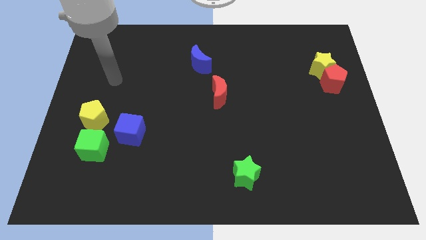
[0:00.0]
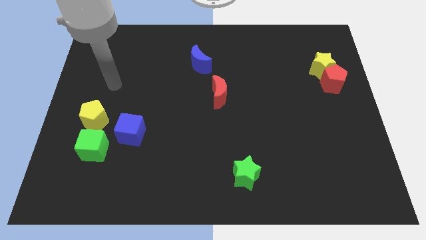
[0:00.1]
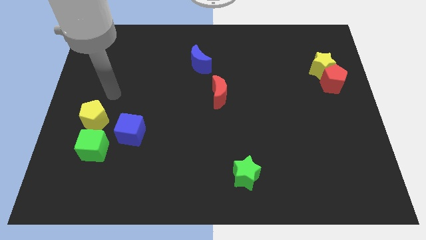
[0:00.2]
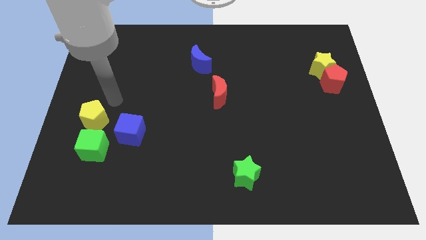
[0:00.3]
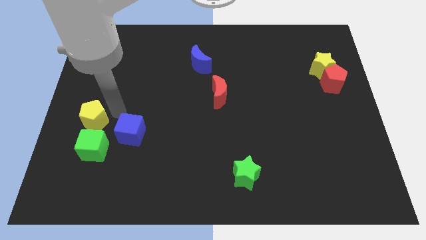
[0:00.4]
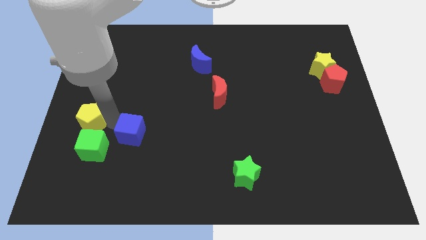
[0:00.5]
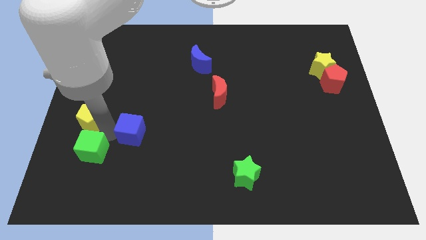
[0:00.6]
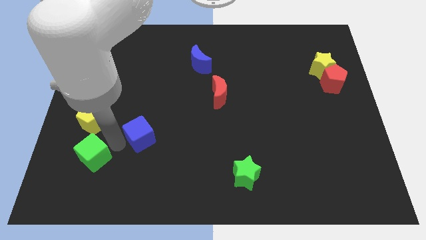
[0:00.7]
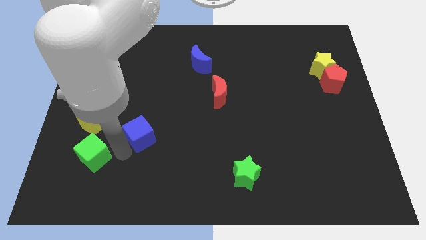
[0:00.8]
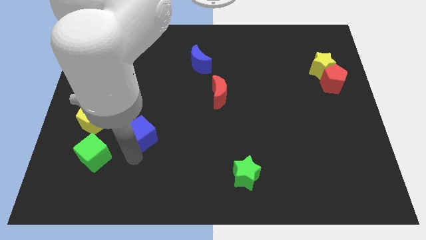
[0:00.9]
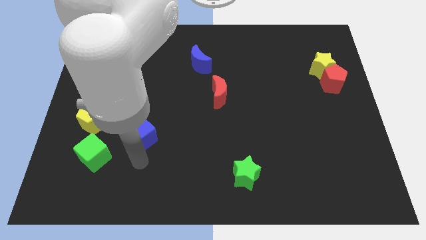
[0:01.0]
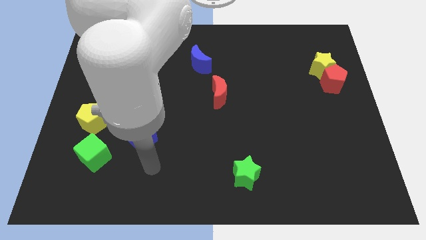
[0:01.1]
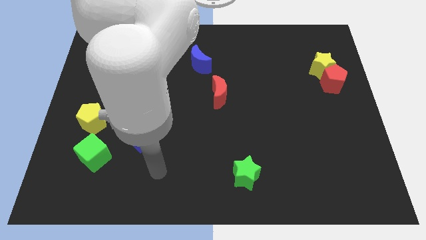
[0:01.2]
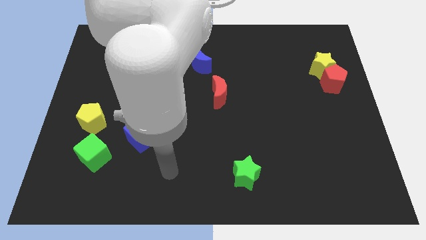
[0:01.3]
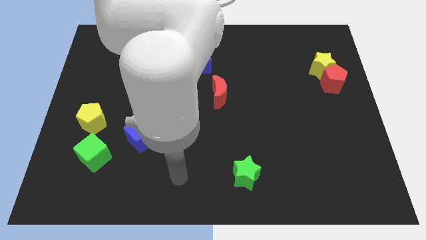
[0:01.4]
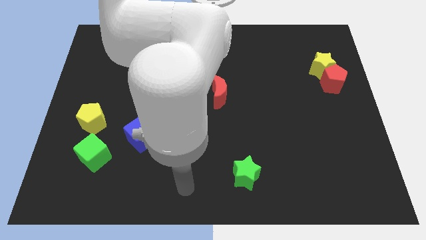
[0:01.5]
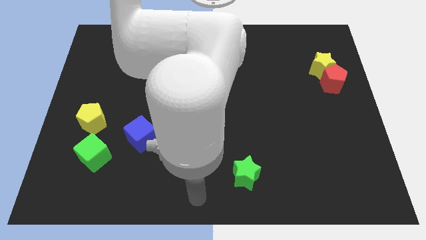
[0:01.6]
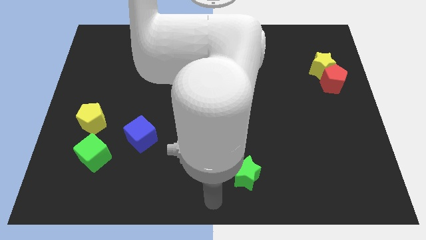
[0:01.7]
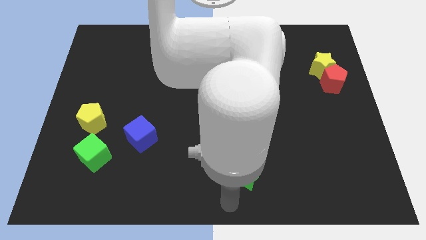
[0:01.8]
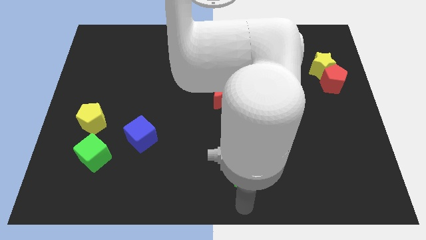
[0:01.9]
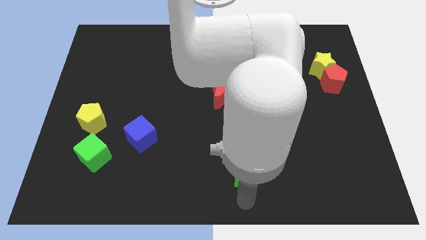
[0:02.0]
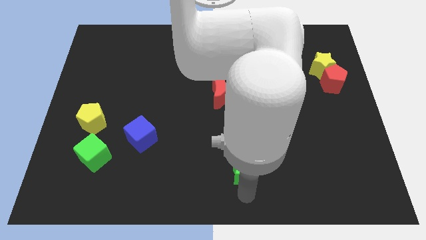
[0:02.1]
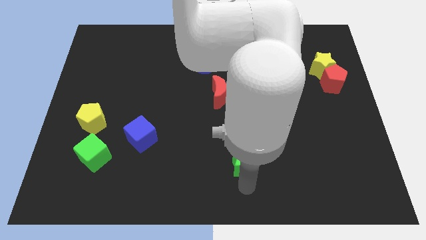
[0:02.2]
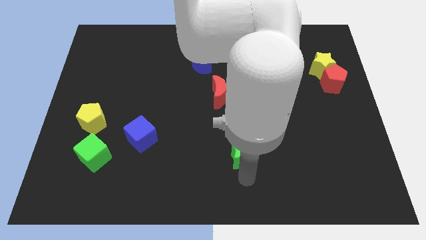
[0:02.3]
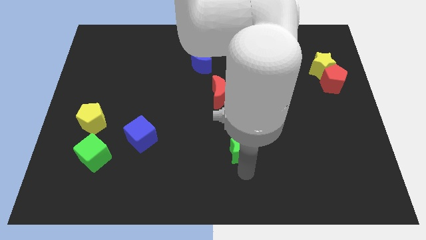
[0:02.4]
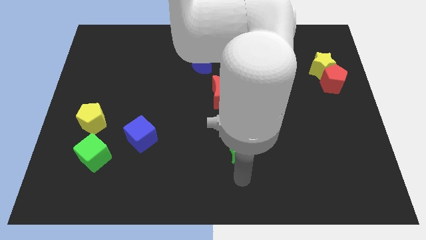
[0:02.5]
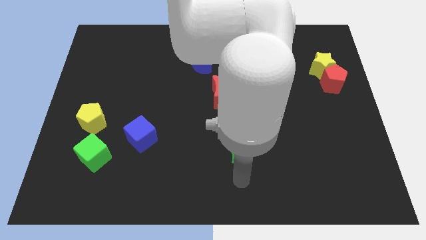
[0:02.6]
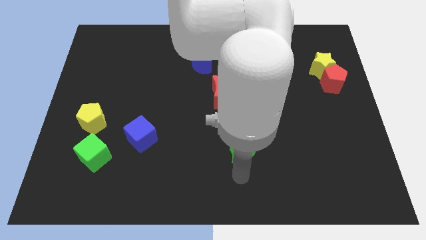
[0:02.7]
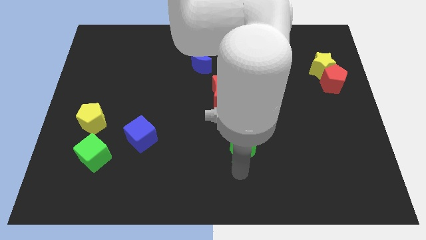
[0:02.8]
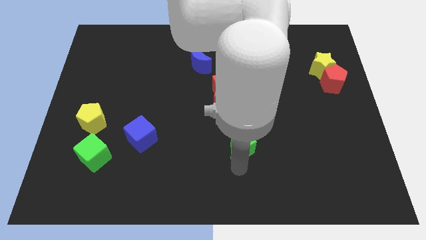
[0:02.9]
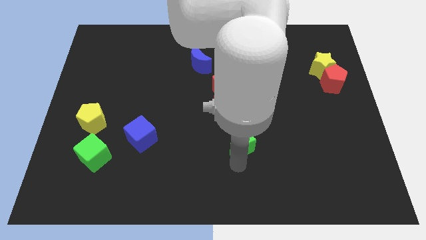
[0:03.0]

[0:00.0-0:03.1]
slightly slide the green star up

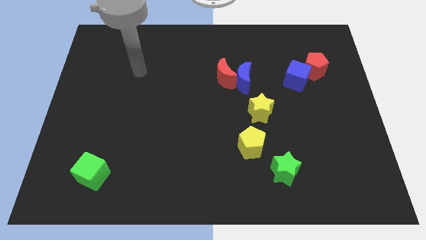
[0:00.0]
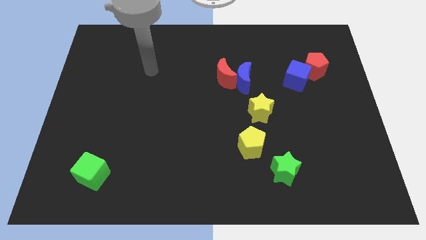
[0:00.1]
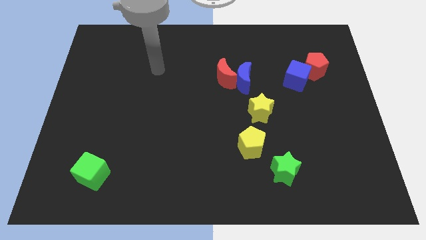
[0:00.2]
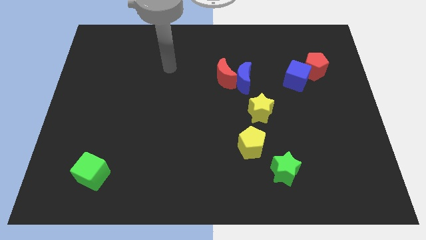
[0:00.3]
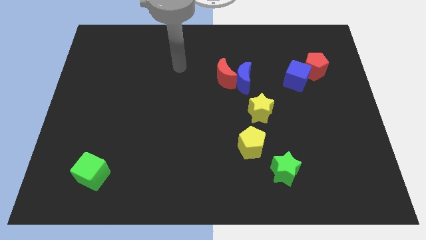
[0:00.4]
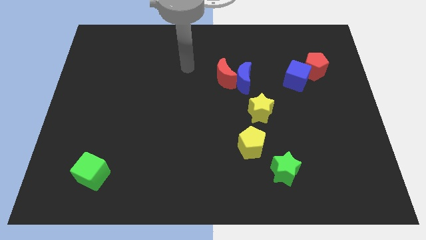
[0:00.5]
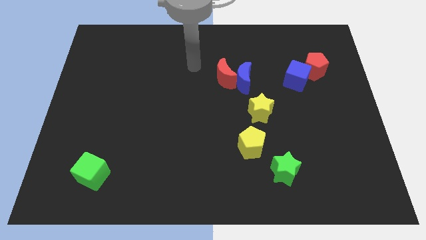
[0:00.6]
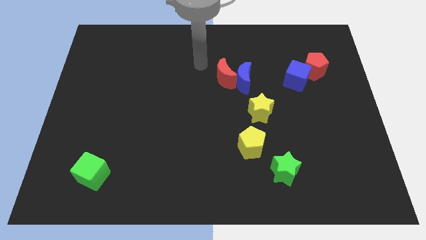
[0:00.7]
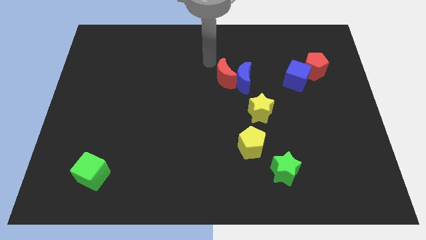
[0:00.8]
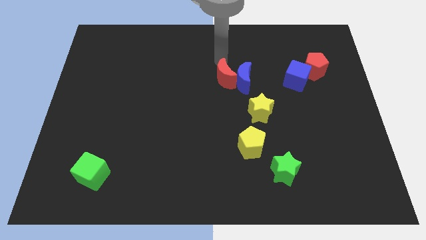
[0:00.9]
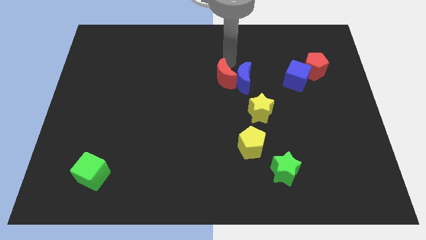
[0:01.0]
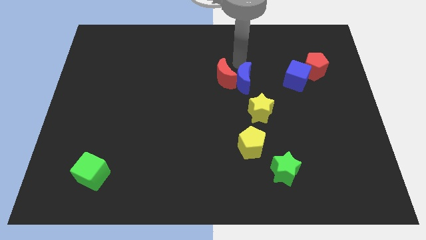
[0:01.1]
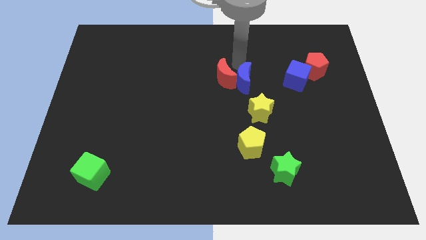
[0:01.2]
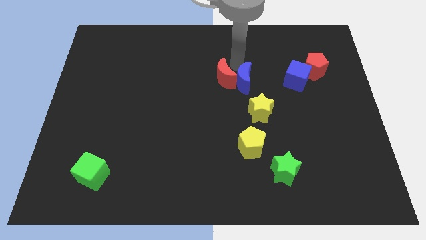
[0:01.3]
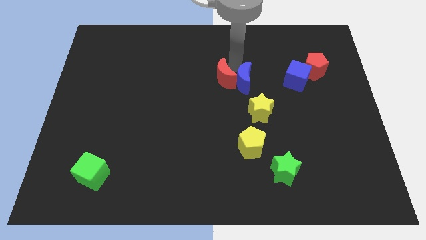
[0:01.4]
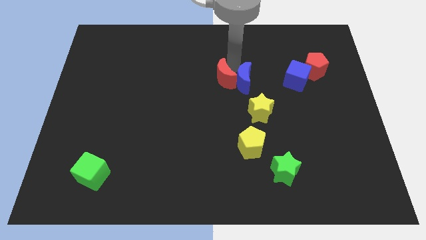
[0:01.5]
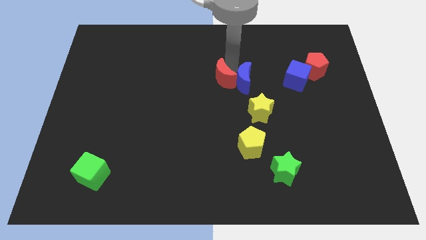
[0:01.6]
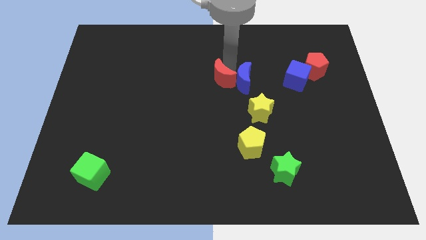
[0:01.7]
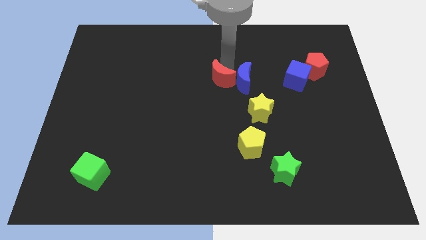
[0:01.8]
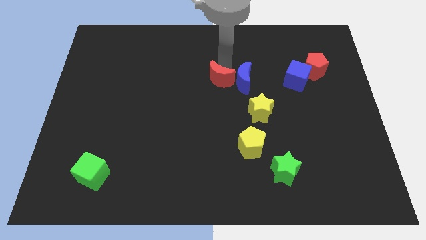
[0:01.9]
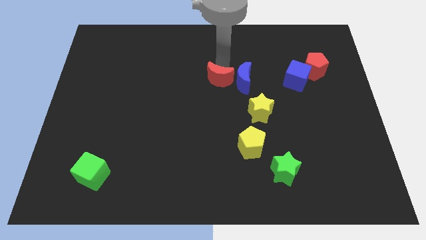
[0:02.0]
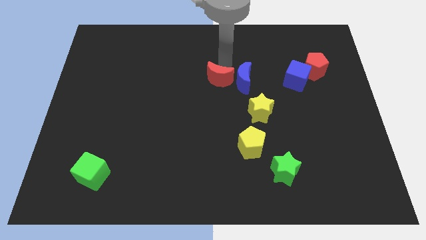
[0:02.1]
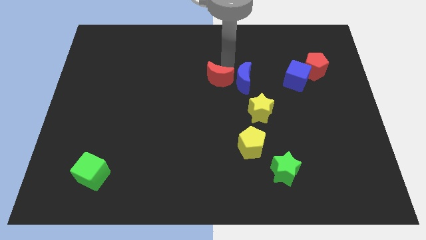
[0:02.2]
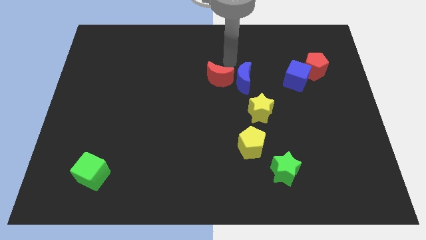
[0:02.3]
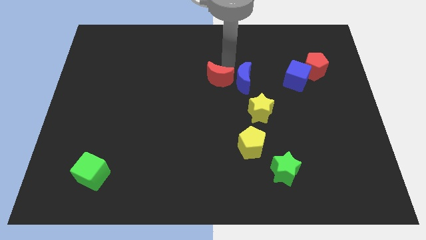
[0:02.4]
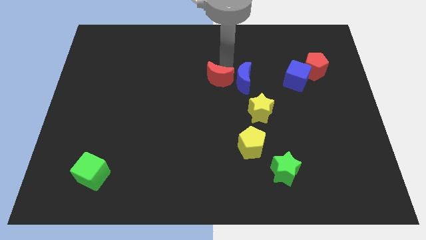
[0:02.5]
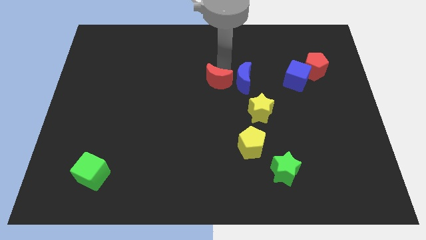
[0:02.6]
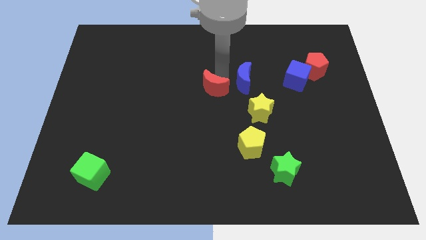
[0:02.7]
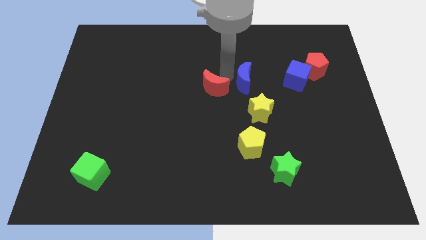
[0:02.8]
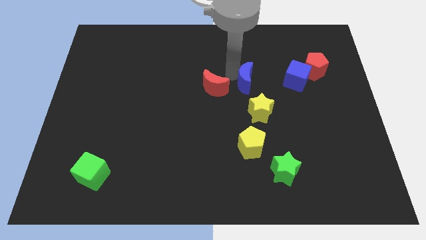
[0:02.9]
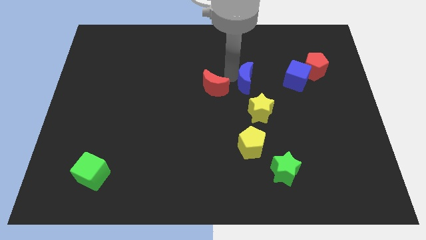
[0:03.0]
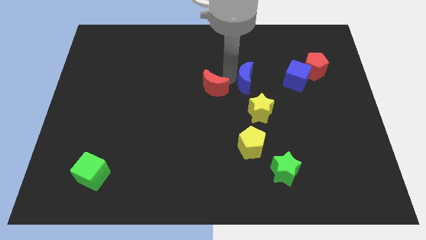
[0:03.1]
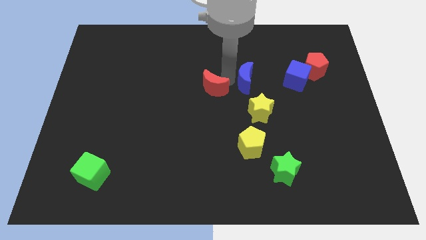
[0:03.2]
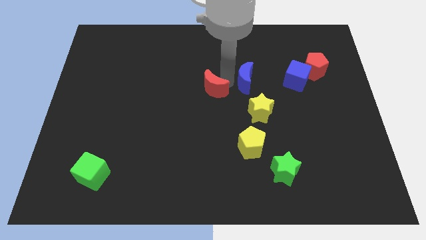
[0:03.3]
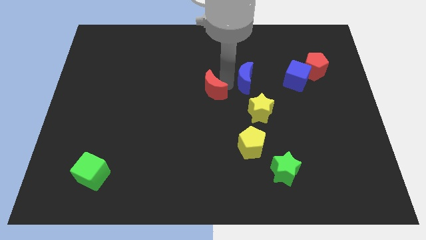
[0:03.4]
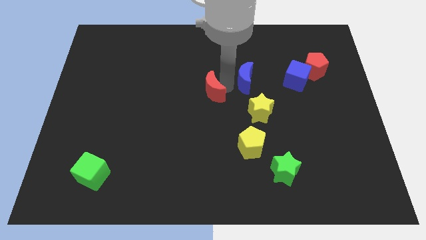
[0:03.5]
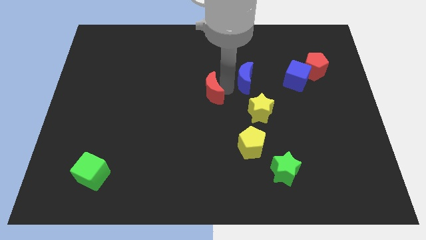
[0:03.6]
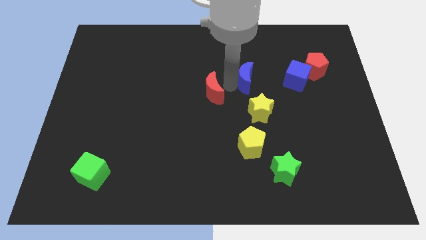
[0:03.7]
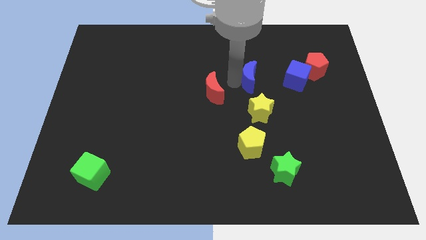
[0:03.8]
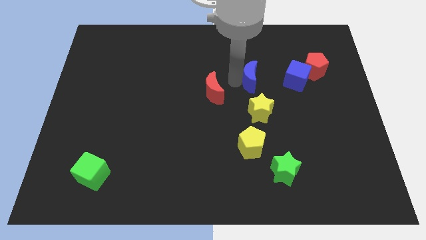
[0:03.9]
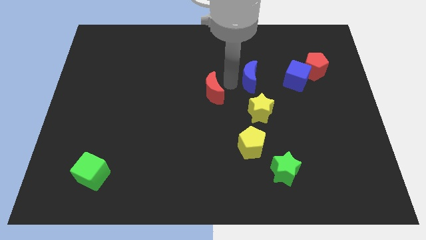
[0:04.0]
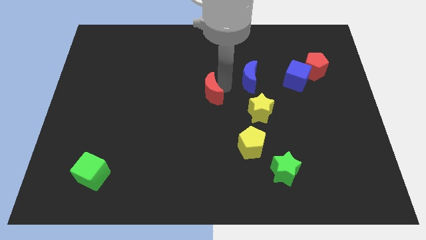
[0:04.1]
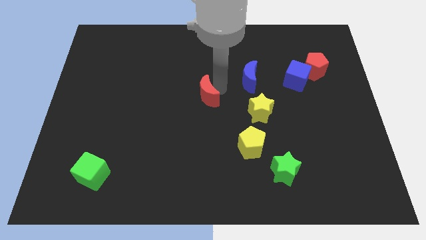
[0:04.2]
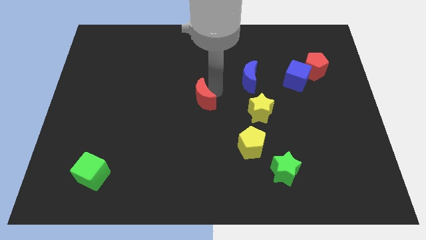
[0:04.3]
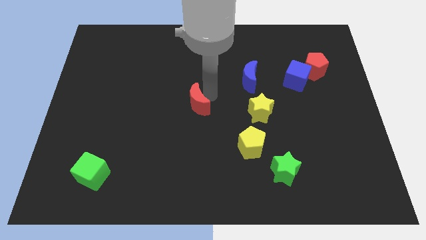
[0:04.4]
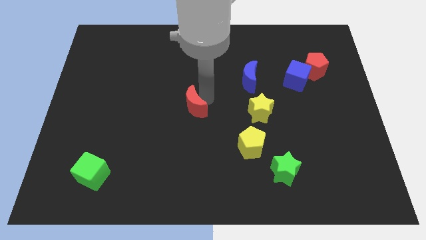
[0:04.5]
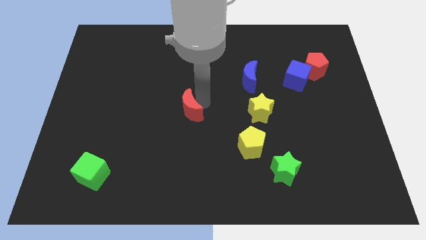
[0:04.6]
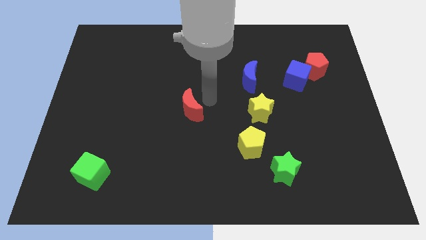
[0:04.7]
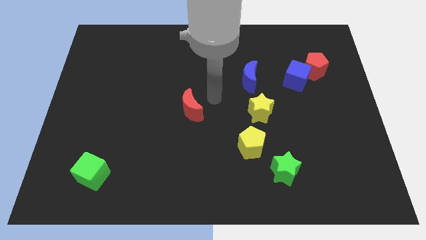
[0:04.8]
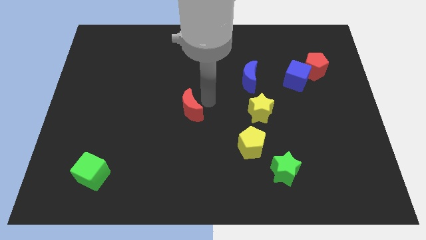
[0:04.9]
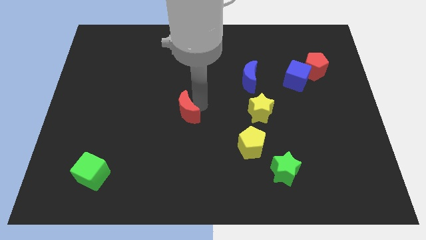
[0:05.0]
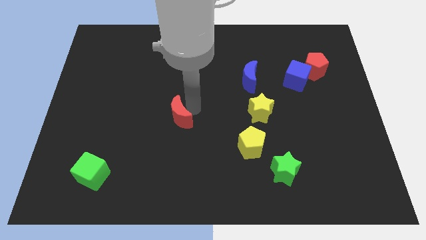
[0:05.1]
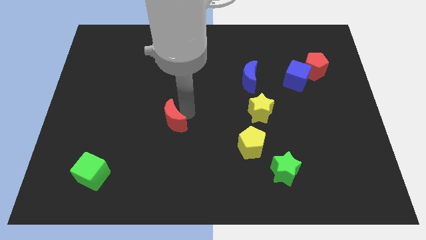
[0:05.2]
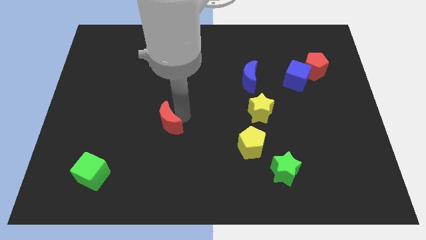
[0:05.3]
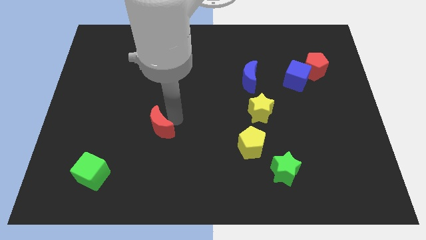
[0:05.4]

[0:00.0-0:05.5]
slide the red moon downwards and then left
